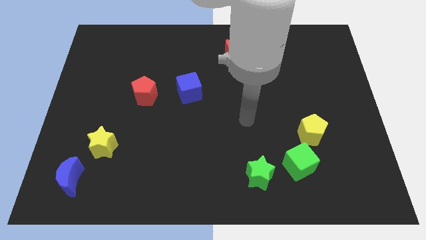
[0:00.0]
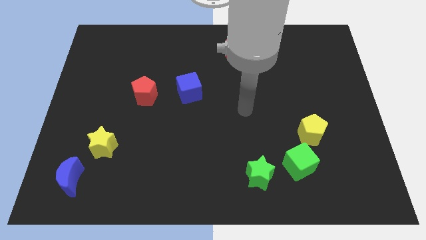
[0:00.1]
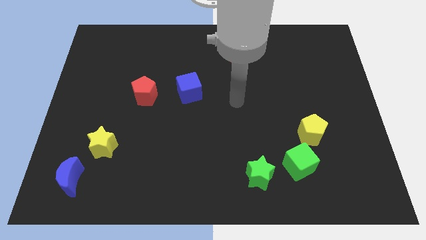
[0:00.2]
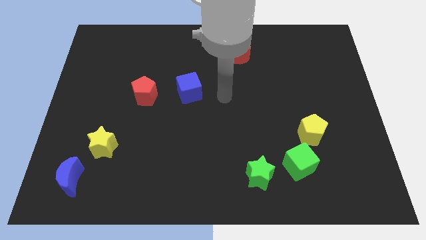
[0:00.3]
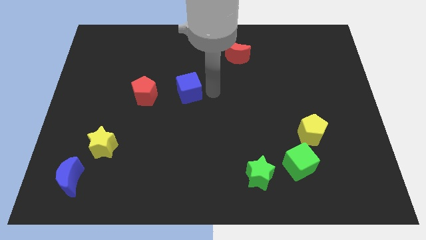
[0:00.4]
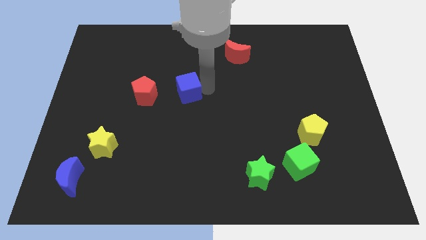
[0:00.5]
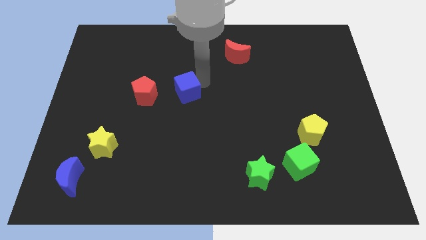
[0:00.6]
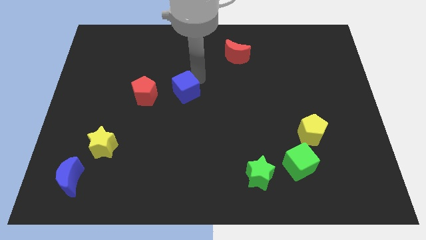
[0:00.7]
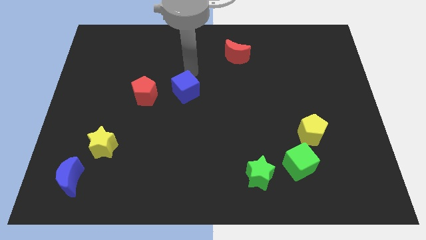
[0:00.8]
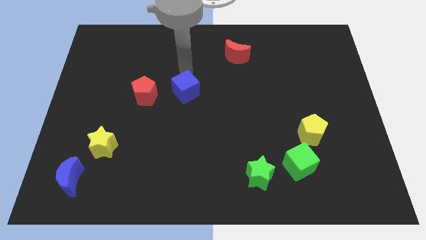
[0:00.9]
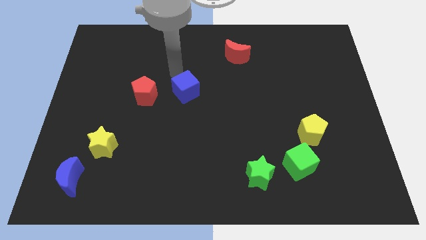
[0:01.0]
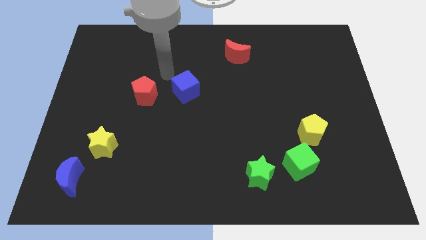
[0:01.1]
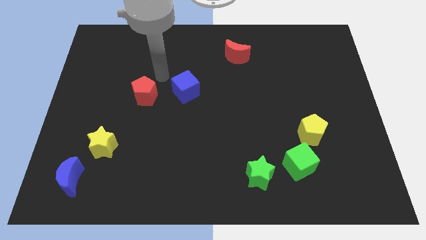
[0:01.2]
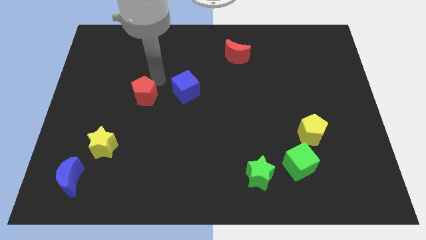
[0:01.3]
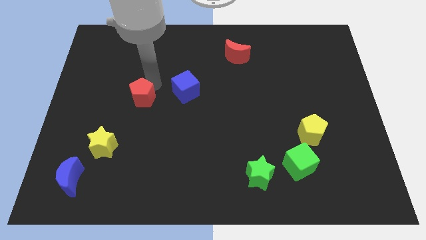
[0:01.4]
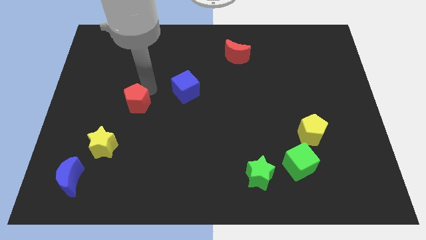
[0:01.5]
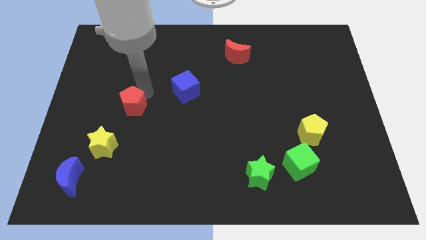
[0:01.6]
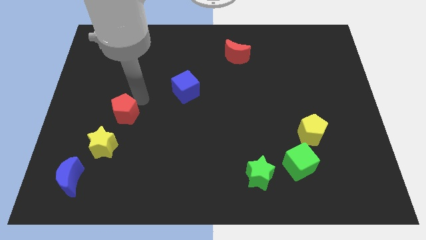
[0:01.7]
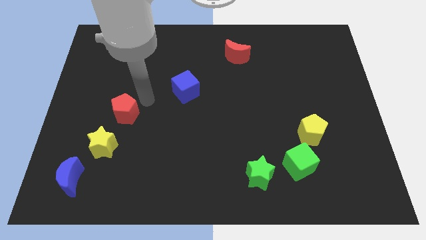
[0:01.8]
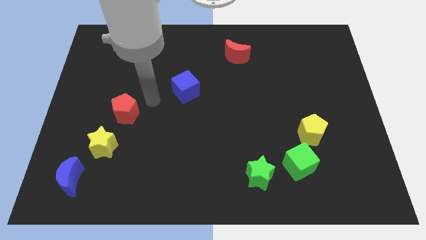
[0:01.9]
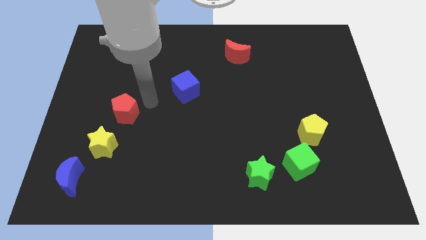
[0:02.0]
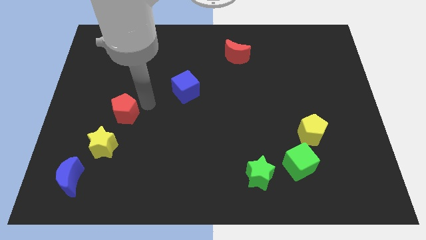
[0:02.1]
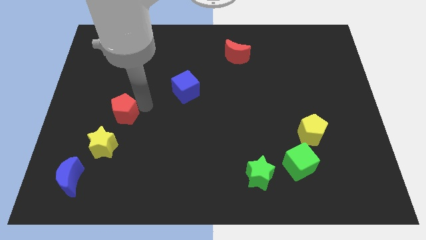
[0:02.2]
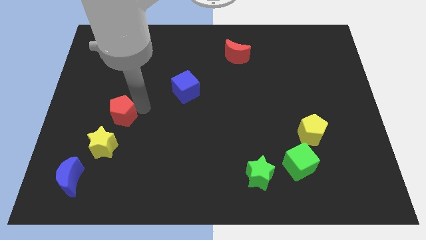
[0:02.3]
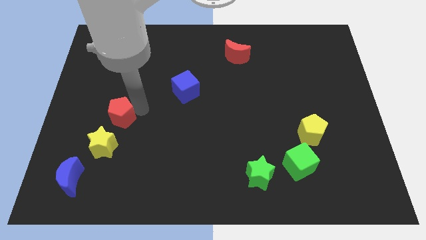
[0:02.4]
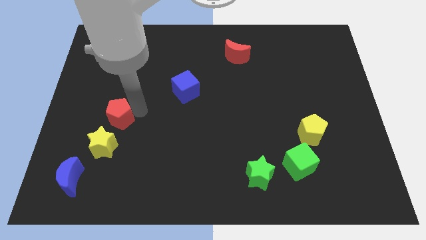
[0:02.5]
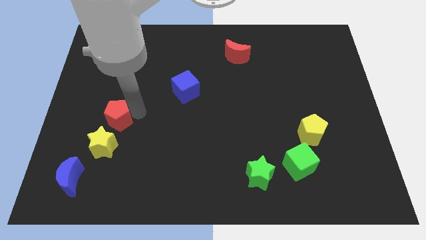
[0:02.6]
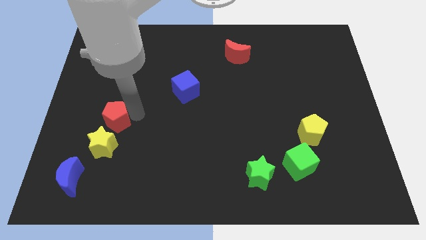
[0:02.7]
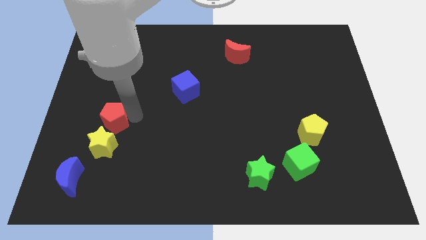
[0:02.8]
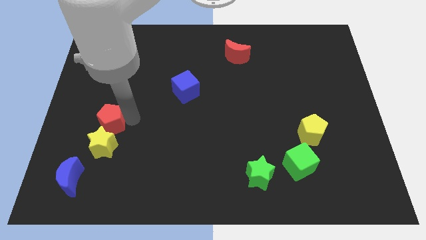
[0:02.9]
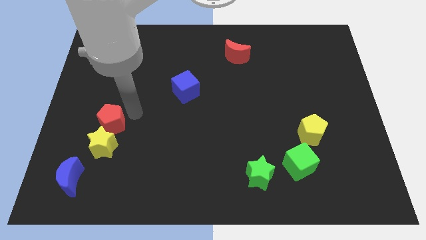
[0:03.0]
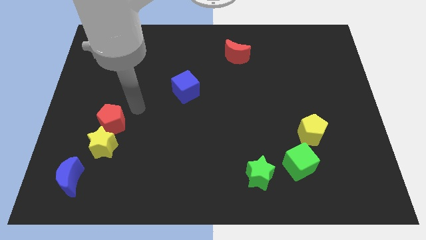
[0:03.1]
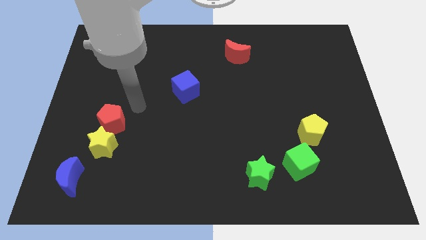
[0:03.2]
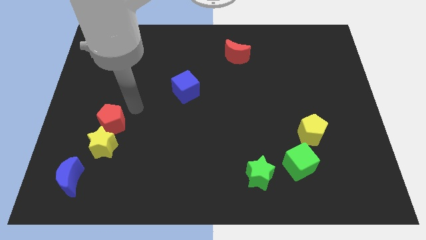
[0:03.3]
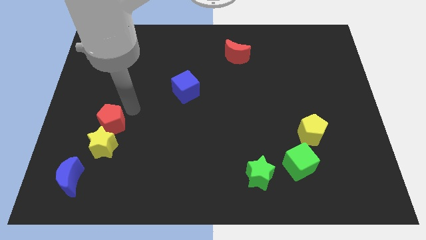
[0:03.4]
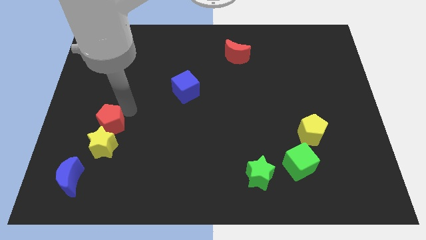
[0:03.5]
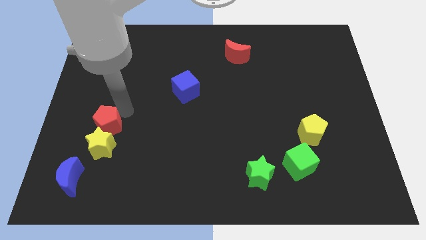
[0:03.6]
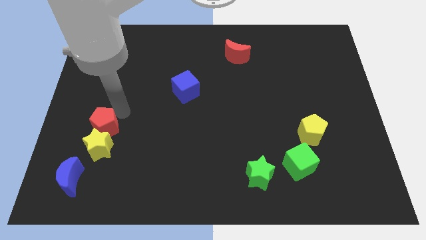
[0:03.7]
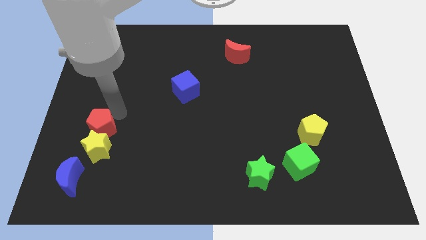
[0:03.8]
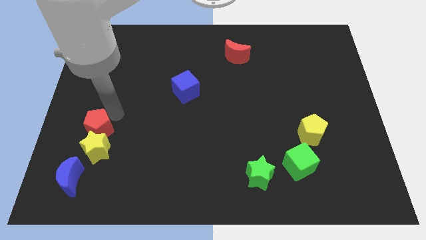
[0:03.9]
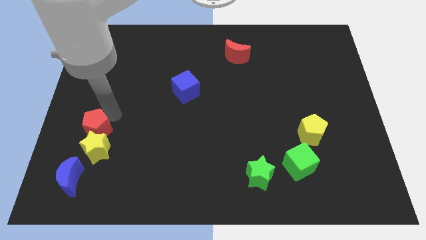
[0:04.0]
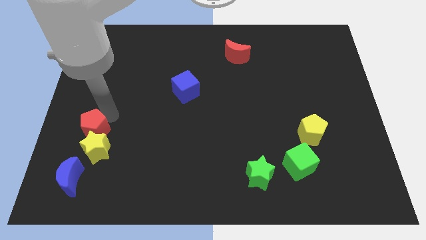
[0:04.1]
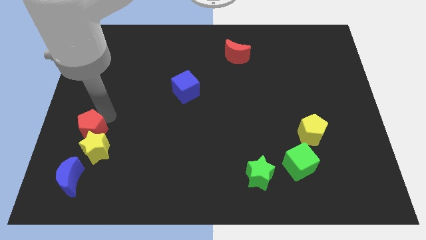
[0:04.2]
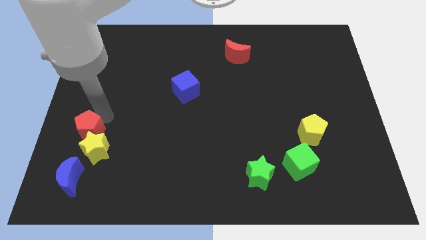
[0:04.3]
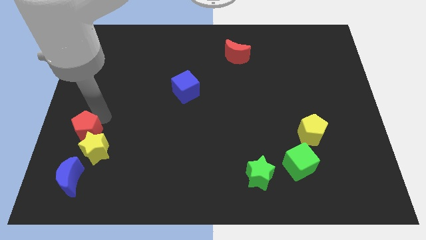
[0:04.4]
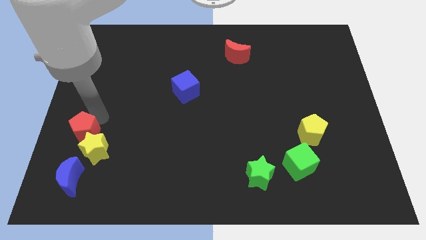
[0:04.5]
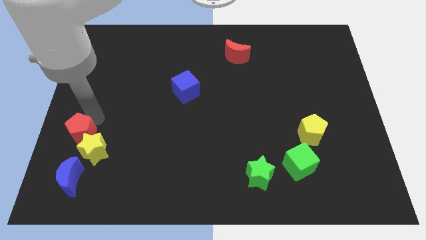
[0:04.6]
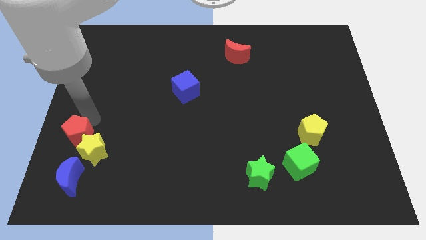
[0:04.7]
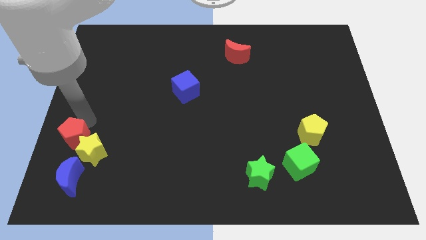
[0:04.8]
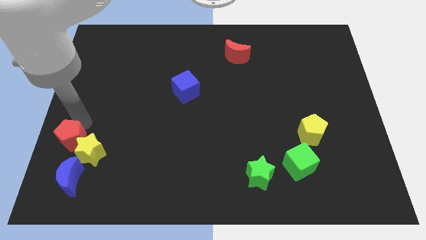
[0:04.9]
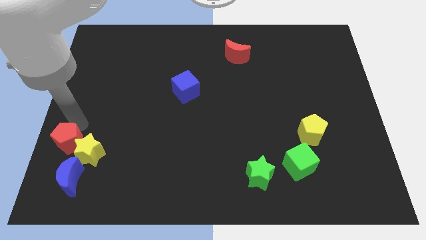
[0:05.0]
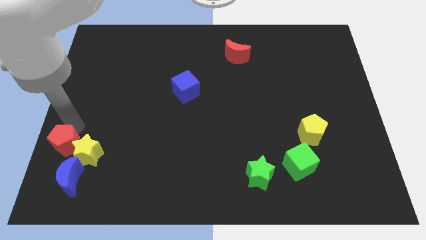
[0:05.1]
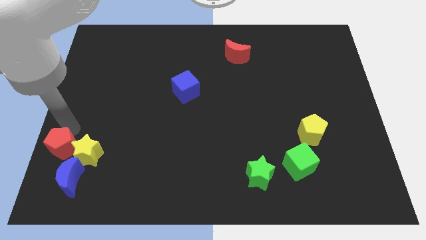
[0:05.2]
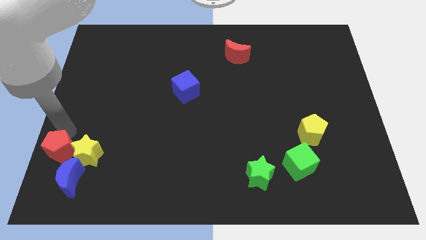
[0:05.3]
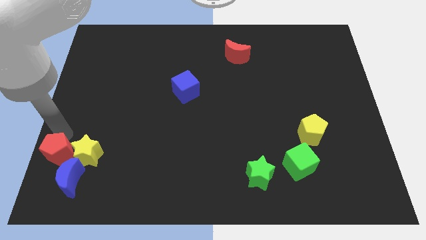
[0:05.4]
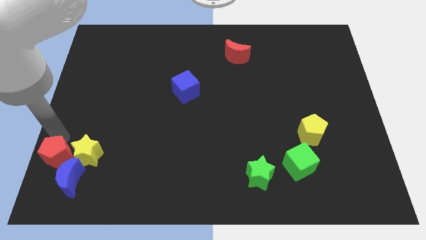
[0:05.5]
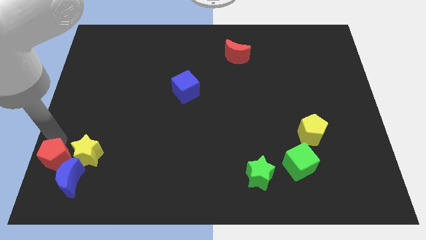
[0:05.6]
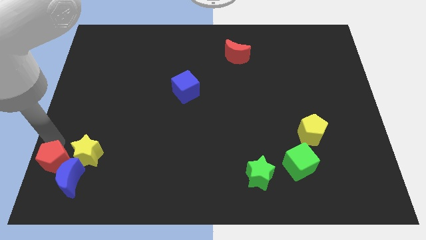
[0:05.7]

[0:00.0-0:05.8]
move the red pentagon close to the blue moon

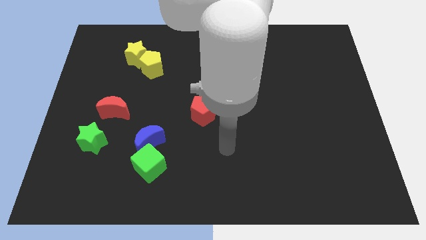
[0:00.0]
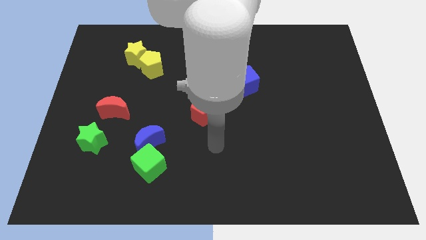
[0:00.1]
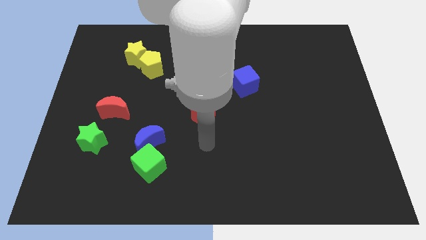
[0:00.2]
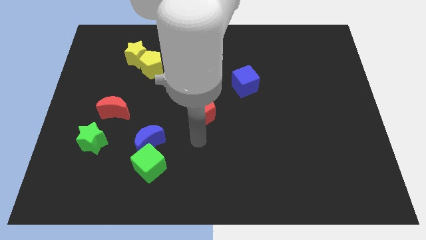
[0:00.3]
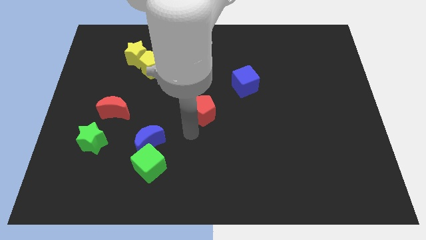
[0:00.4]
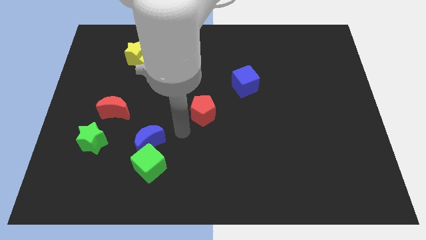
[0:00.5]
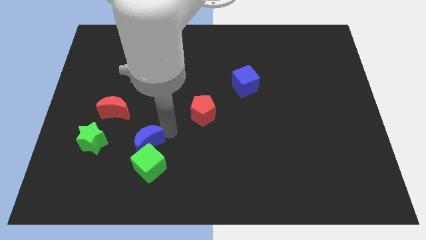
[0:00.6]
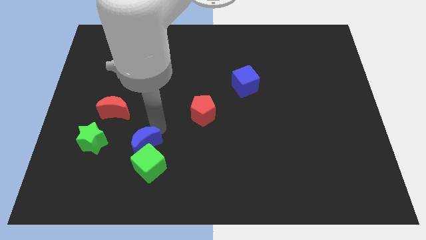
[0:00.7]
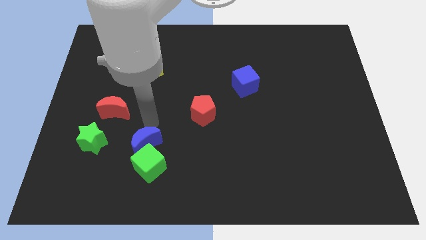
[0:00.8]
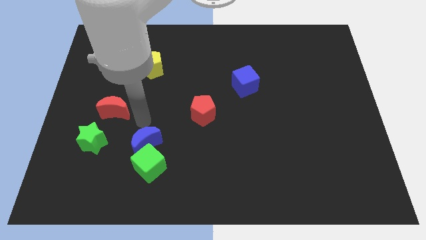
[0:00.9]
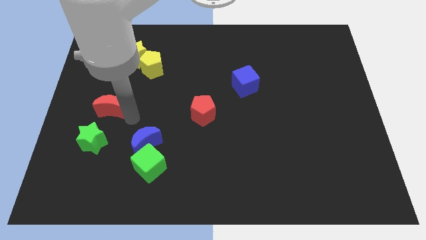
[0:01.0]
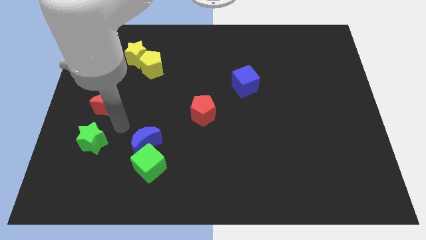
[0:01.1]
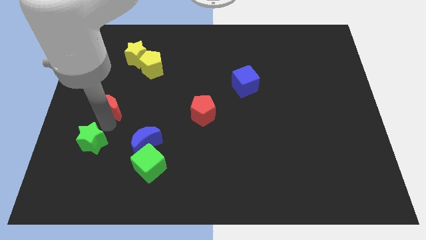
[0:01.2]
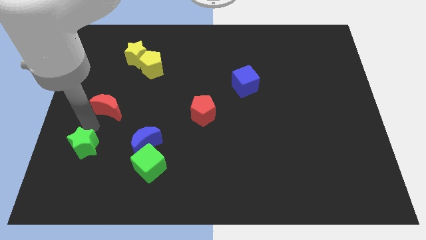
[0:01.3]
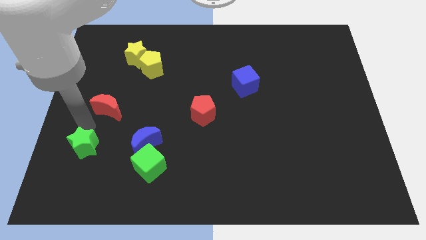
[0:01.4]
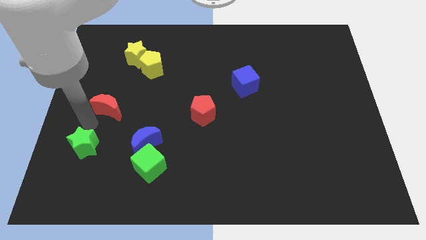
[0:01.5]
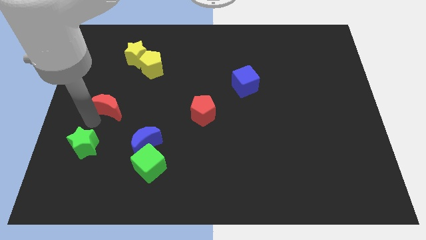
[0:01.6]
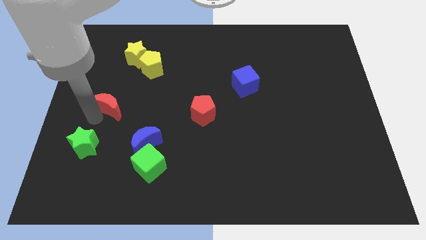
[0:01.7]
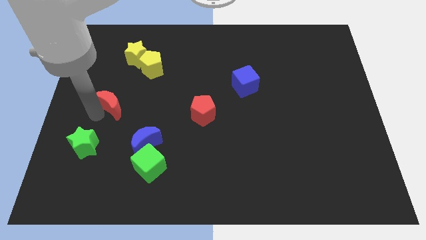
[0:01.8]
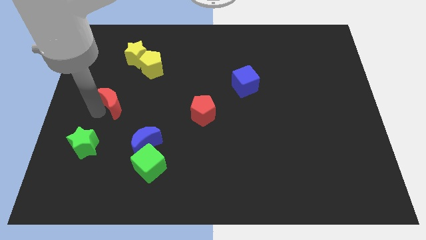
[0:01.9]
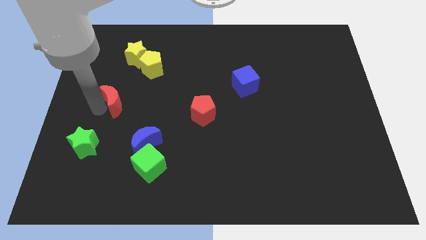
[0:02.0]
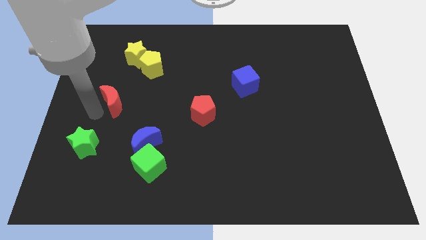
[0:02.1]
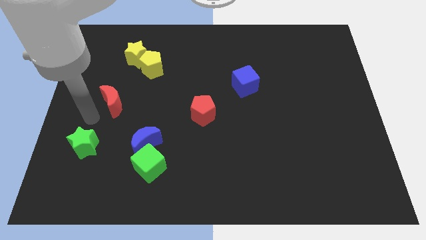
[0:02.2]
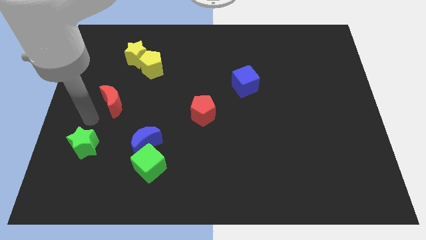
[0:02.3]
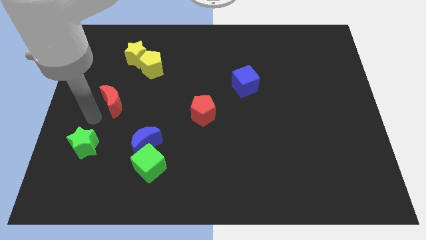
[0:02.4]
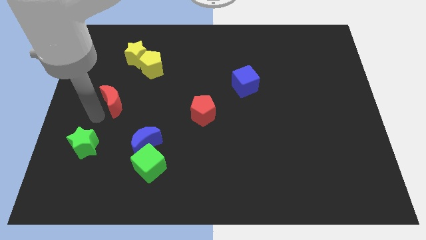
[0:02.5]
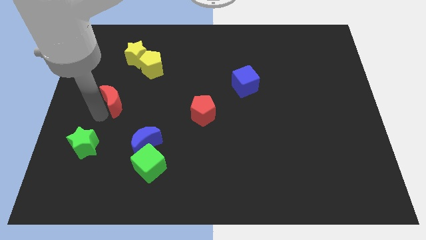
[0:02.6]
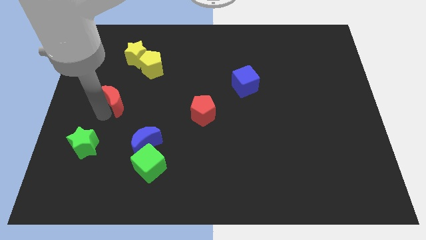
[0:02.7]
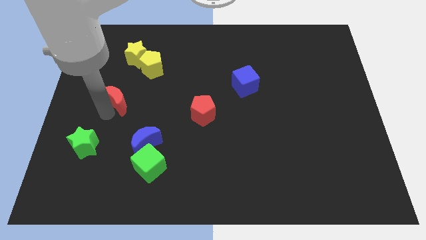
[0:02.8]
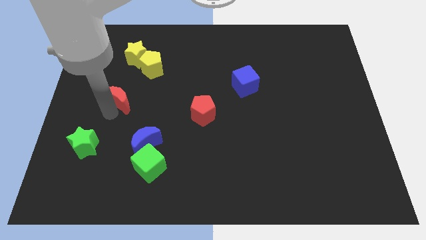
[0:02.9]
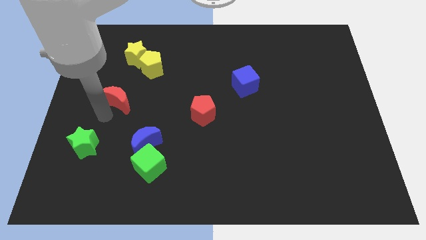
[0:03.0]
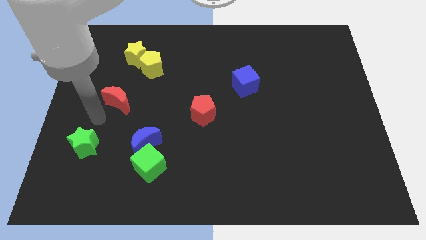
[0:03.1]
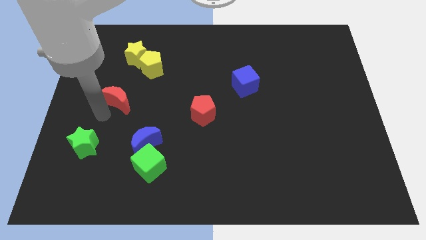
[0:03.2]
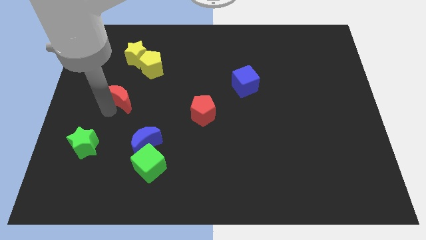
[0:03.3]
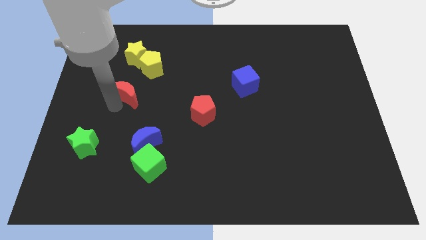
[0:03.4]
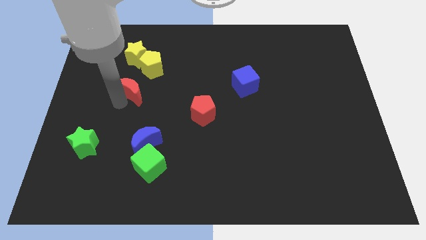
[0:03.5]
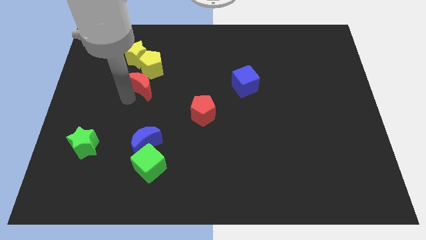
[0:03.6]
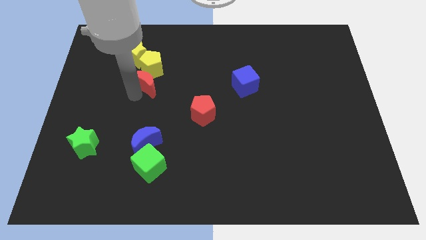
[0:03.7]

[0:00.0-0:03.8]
move the red moon close to the yellow pentagon
